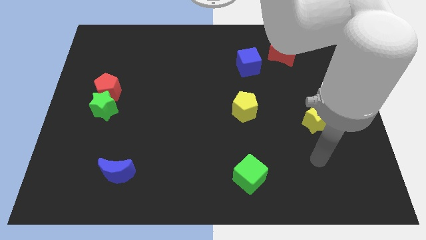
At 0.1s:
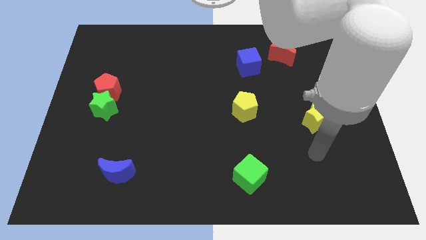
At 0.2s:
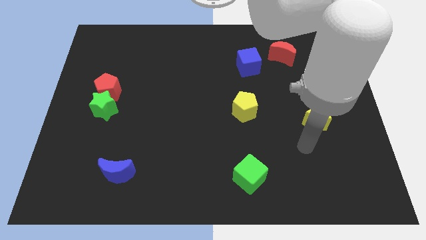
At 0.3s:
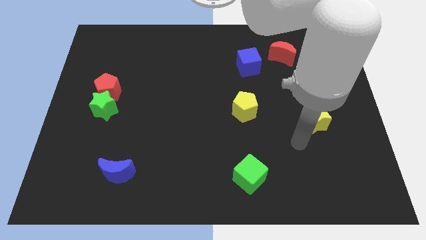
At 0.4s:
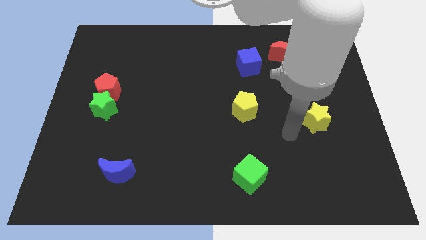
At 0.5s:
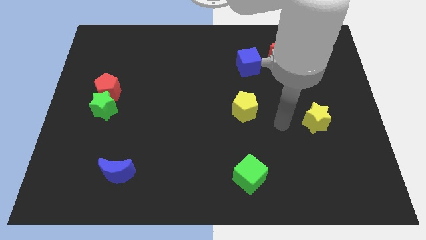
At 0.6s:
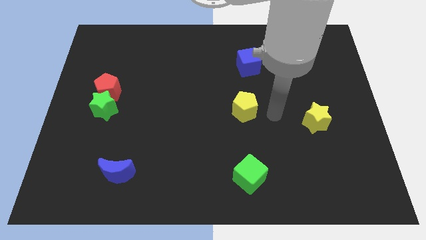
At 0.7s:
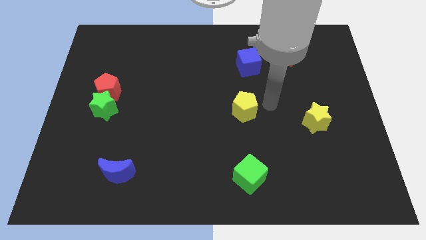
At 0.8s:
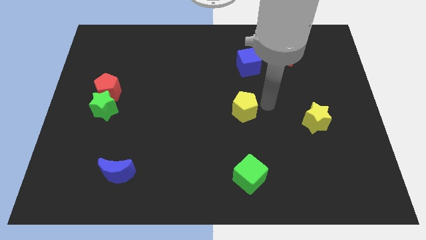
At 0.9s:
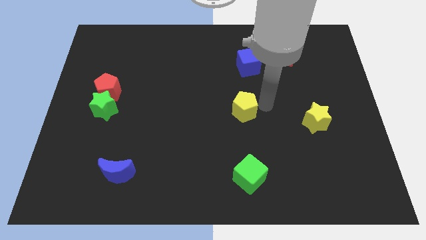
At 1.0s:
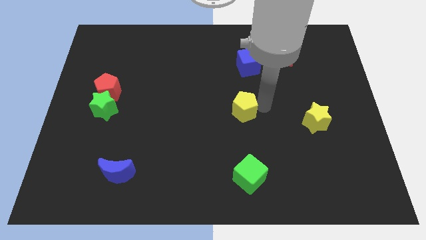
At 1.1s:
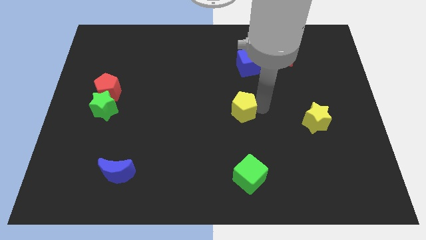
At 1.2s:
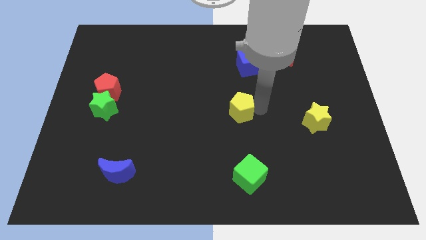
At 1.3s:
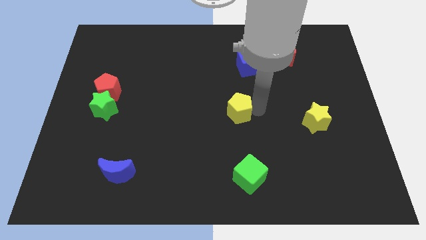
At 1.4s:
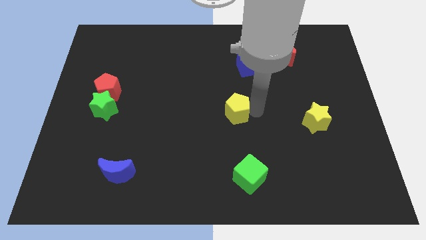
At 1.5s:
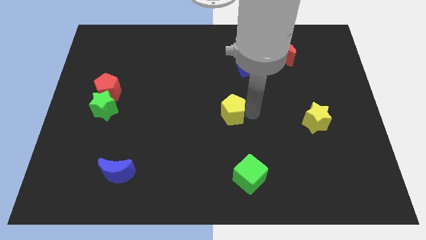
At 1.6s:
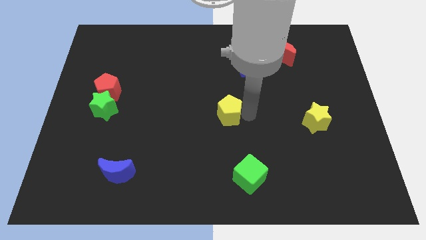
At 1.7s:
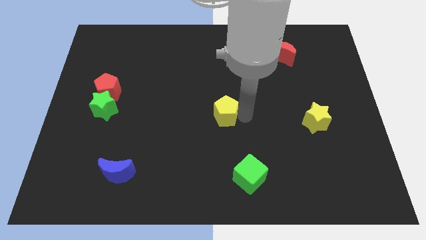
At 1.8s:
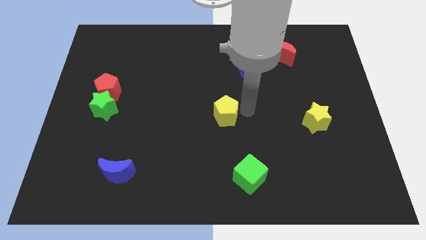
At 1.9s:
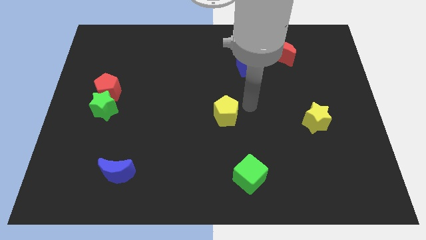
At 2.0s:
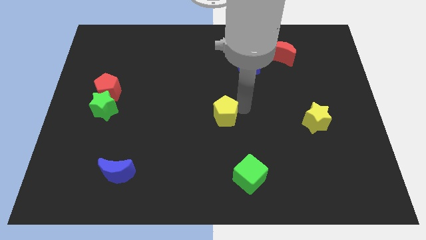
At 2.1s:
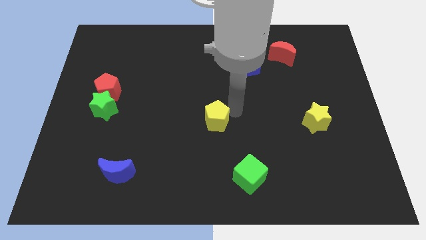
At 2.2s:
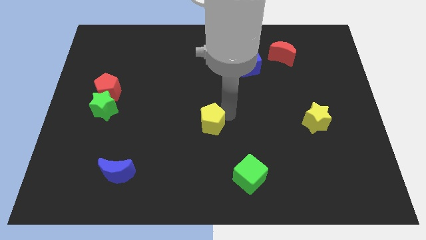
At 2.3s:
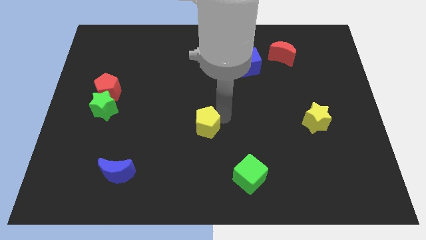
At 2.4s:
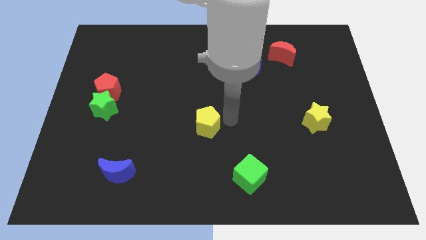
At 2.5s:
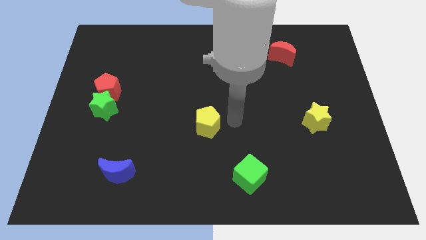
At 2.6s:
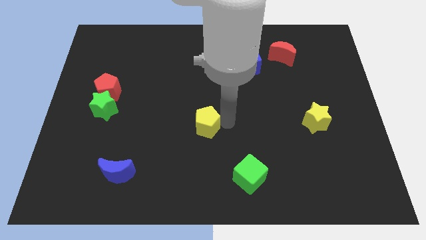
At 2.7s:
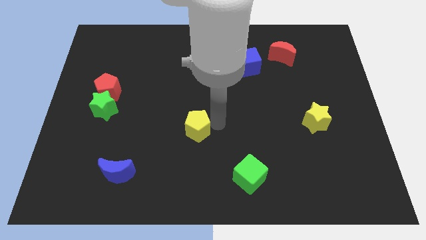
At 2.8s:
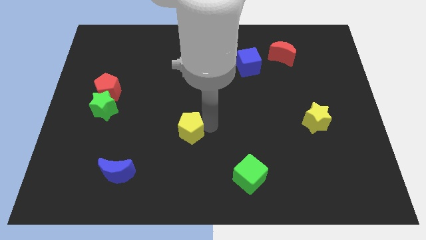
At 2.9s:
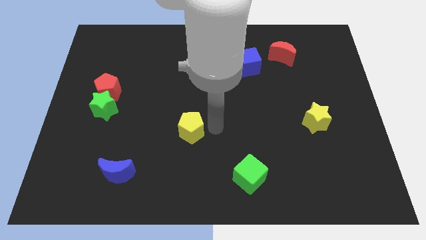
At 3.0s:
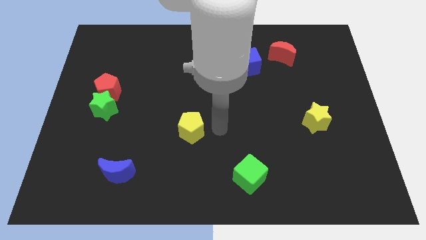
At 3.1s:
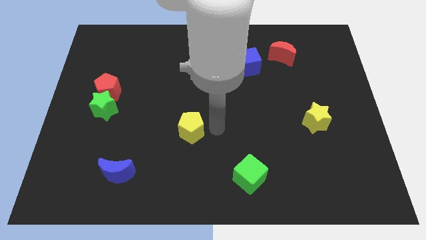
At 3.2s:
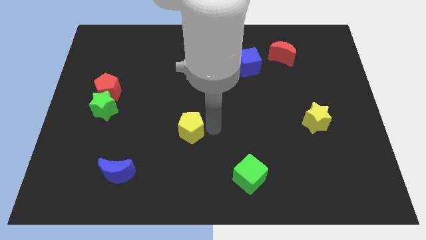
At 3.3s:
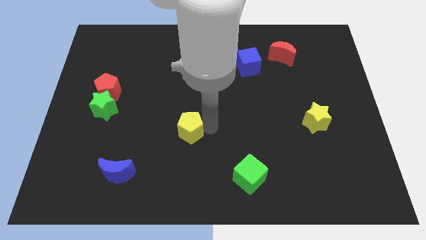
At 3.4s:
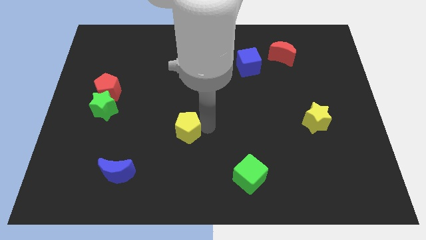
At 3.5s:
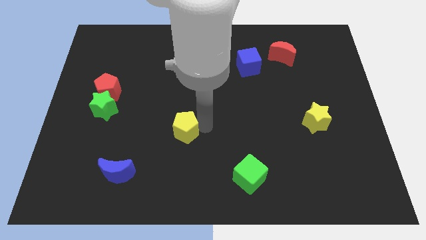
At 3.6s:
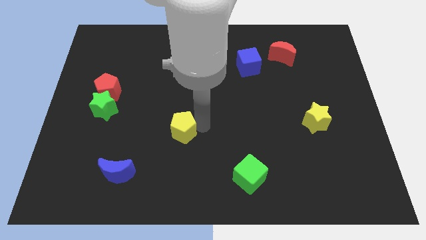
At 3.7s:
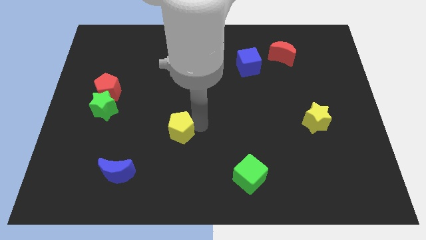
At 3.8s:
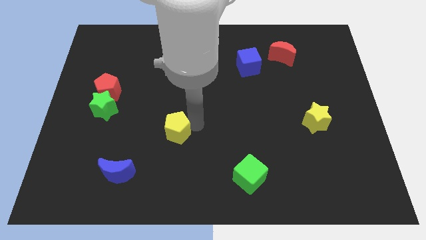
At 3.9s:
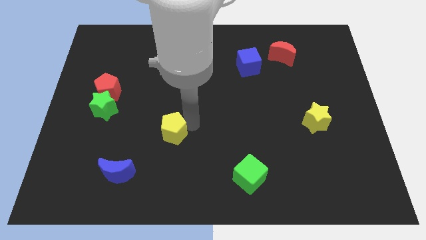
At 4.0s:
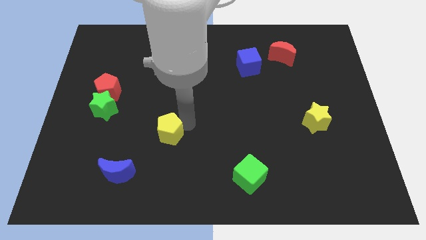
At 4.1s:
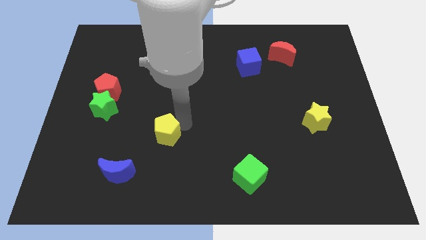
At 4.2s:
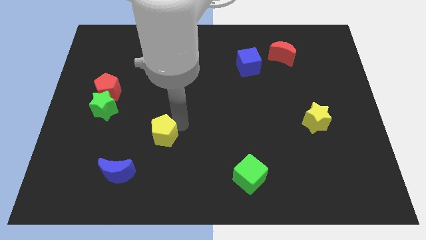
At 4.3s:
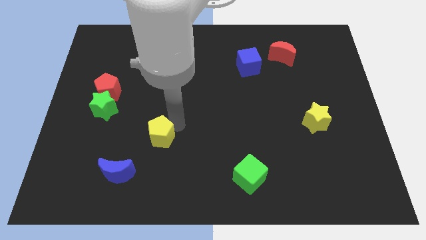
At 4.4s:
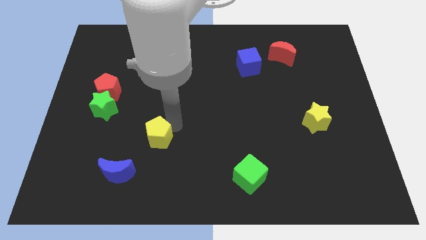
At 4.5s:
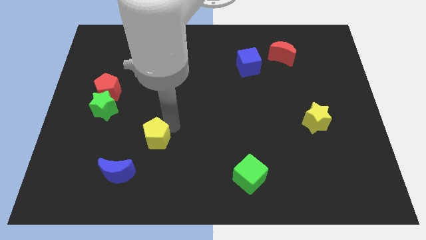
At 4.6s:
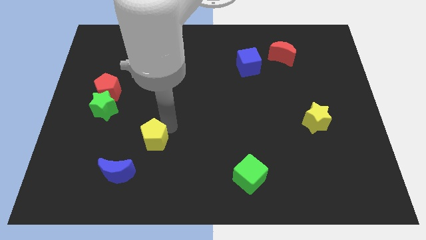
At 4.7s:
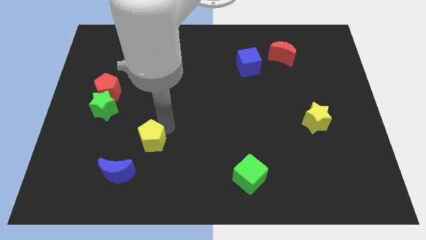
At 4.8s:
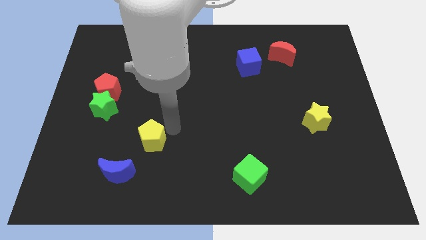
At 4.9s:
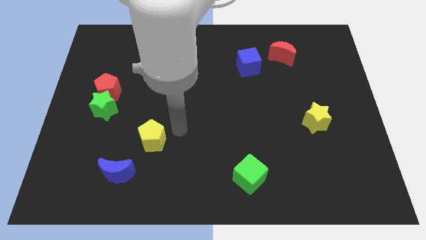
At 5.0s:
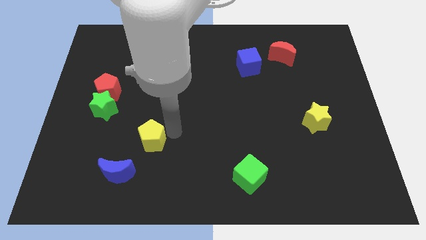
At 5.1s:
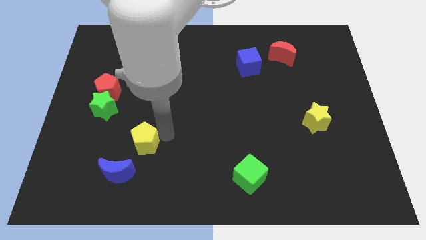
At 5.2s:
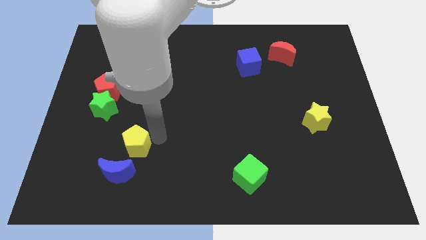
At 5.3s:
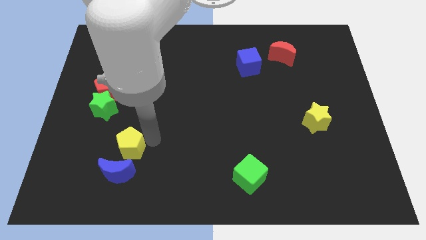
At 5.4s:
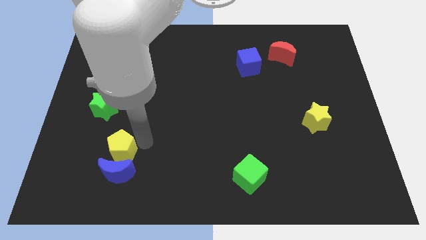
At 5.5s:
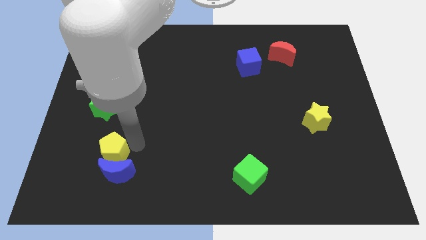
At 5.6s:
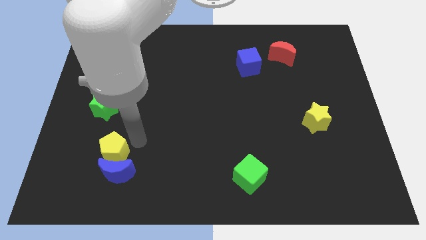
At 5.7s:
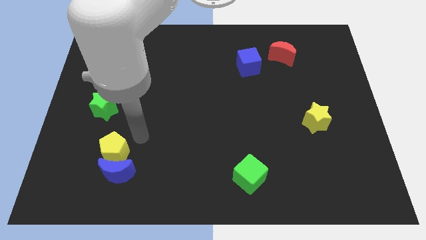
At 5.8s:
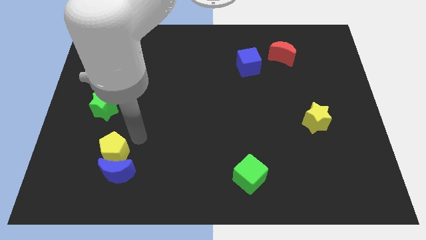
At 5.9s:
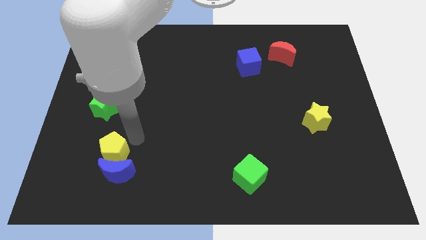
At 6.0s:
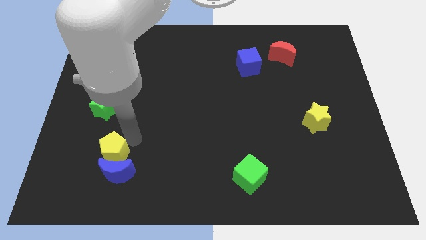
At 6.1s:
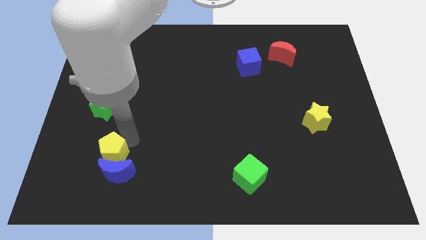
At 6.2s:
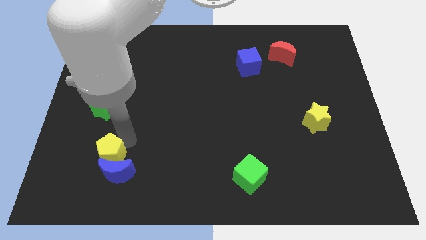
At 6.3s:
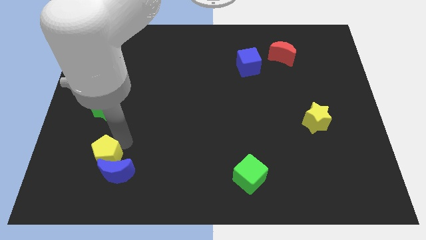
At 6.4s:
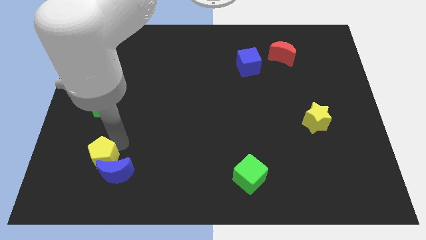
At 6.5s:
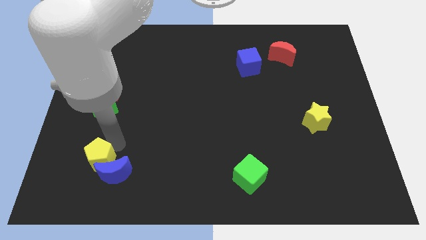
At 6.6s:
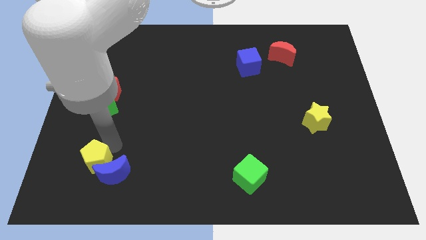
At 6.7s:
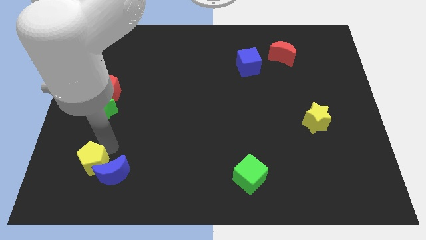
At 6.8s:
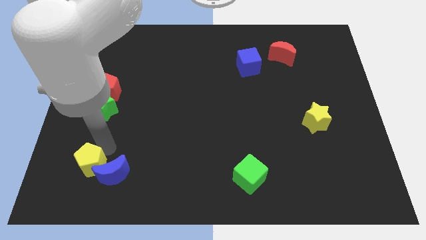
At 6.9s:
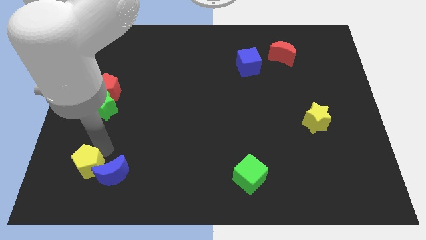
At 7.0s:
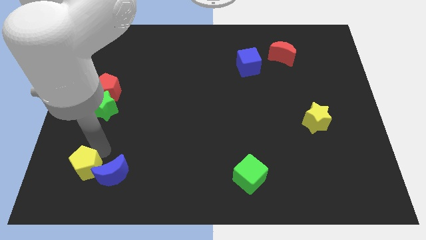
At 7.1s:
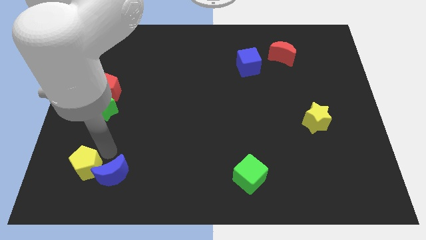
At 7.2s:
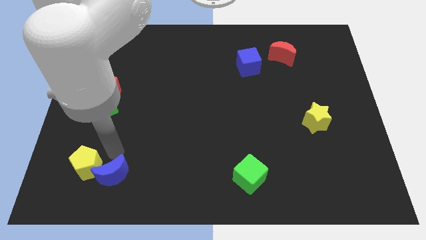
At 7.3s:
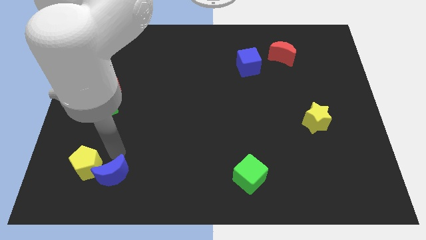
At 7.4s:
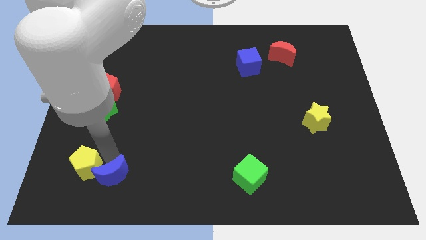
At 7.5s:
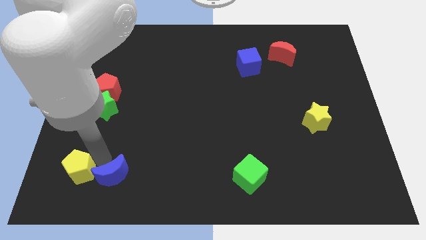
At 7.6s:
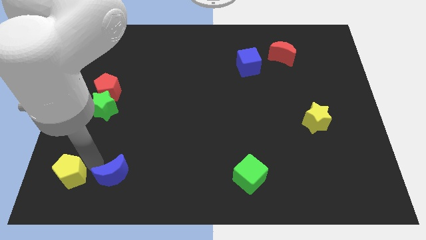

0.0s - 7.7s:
push the yellow pentagon to the bottom left
